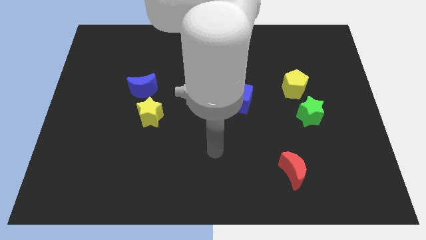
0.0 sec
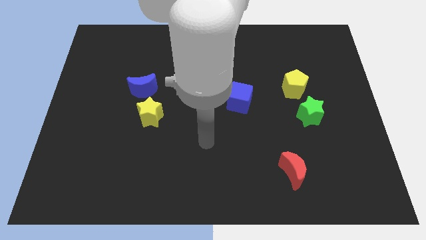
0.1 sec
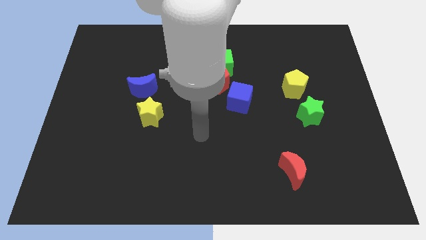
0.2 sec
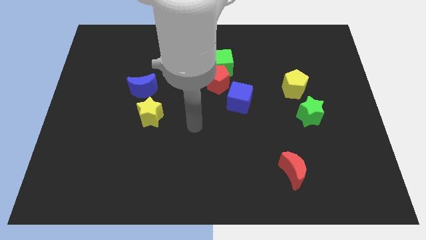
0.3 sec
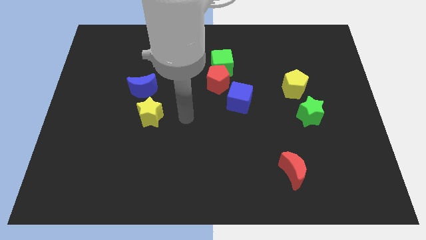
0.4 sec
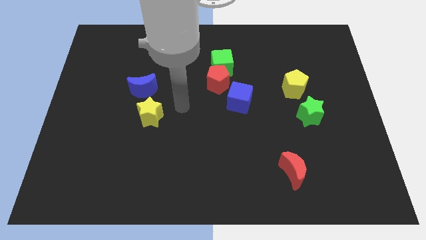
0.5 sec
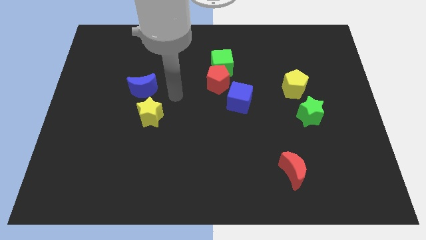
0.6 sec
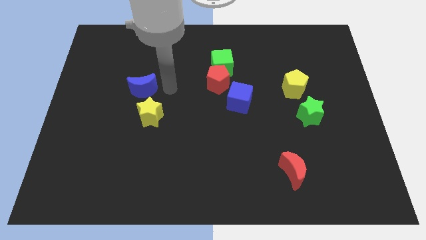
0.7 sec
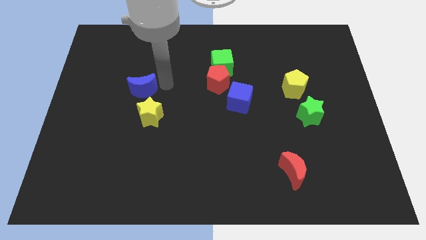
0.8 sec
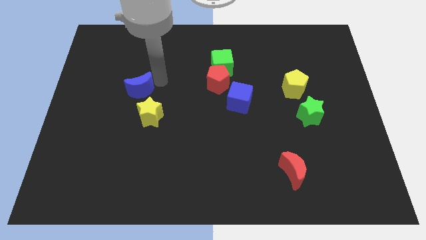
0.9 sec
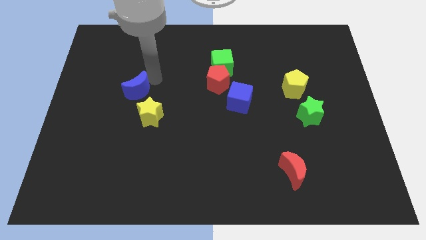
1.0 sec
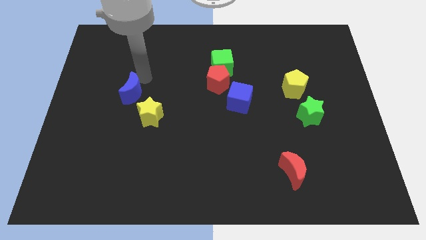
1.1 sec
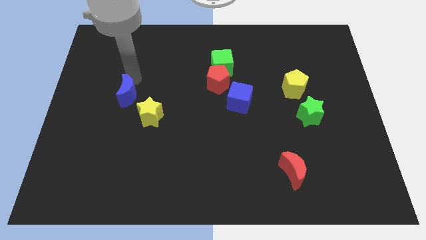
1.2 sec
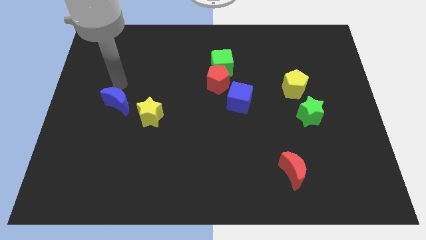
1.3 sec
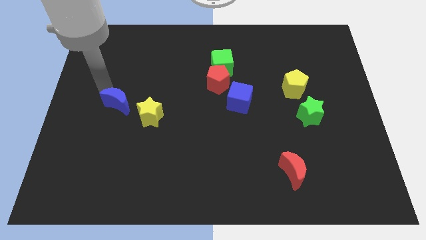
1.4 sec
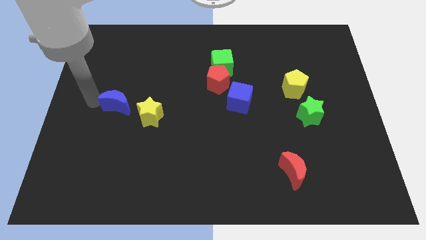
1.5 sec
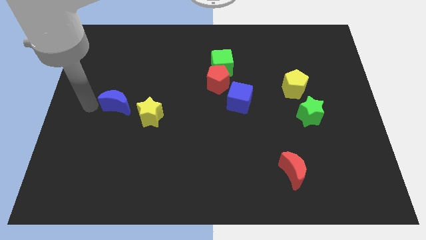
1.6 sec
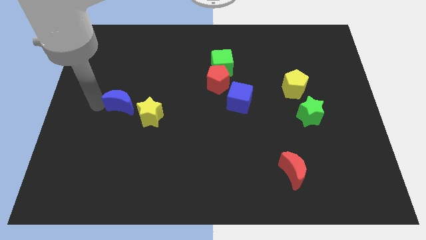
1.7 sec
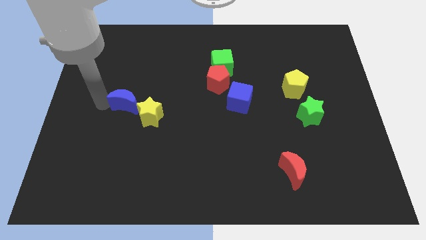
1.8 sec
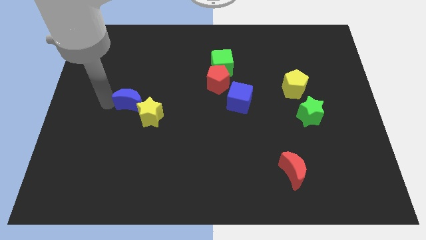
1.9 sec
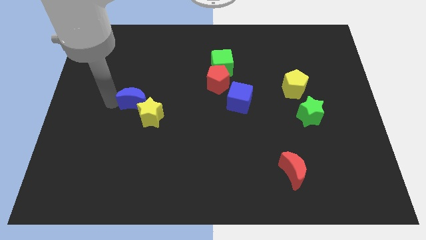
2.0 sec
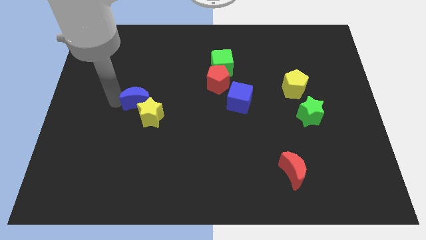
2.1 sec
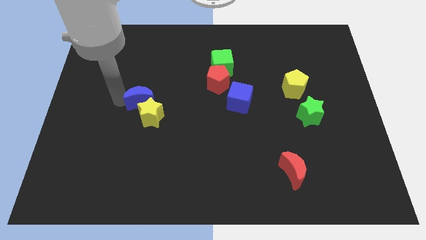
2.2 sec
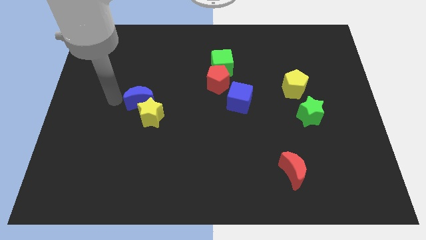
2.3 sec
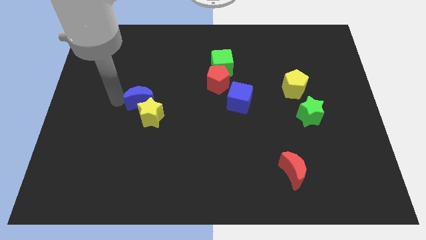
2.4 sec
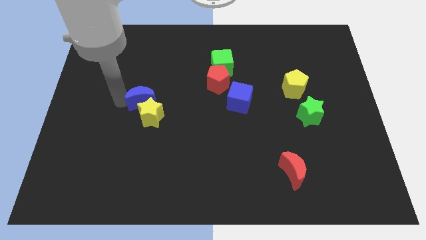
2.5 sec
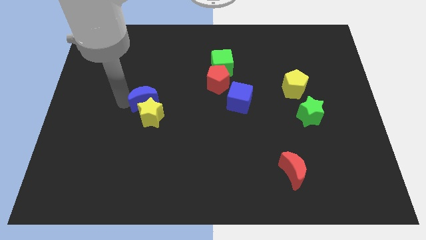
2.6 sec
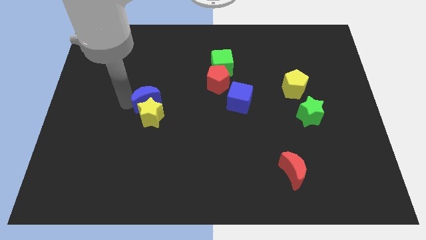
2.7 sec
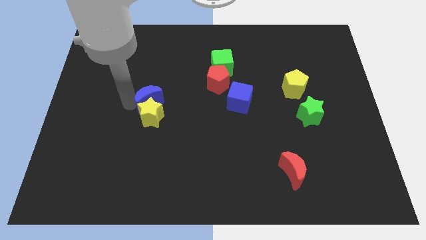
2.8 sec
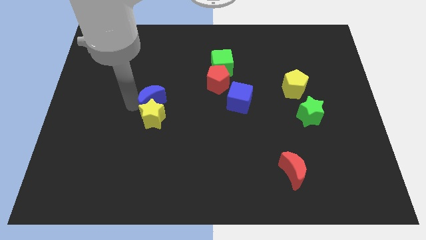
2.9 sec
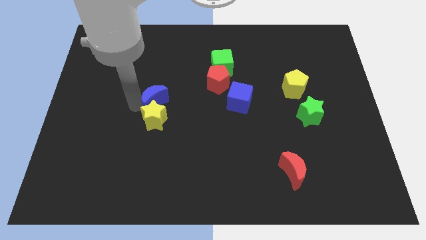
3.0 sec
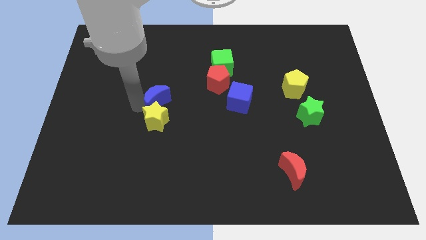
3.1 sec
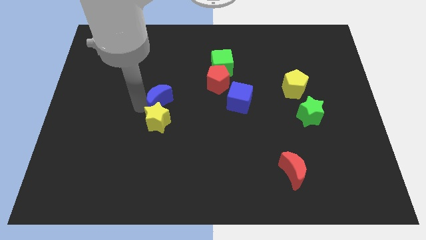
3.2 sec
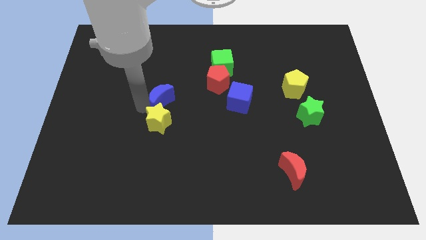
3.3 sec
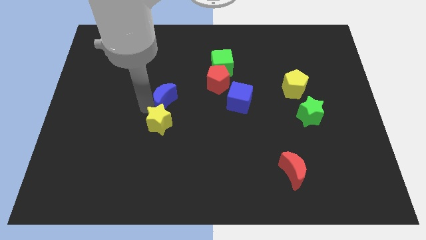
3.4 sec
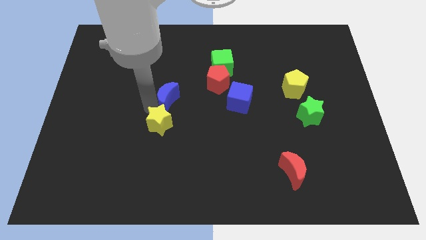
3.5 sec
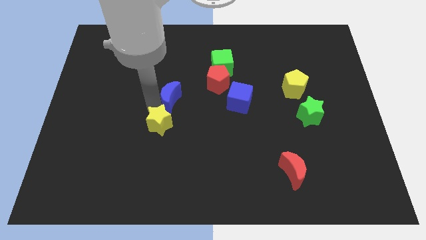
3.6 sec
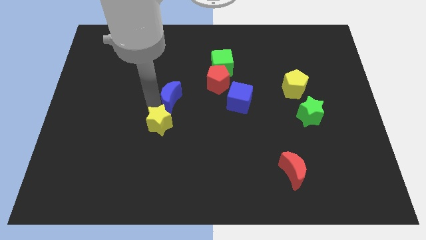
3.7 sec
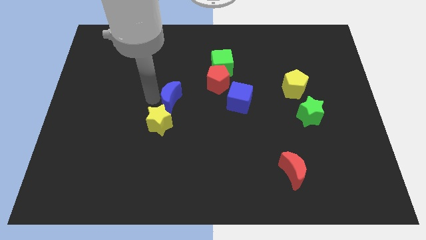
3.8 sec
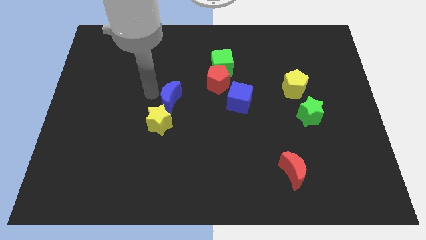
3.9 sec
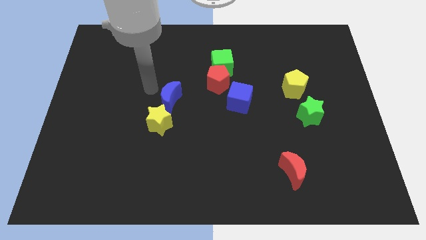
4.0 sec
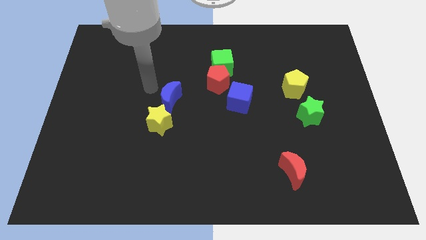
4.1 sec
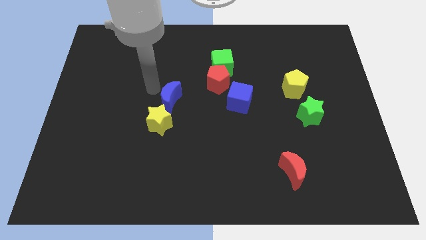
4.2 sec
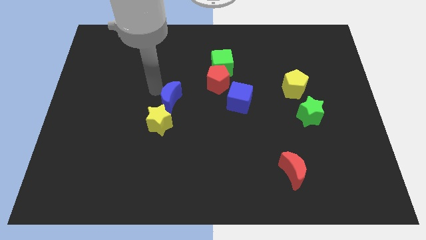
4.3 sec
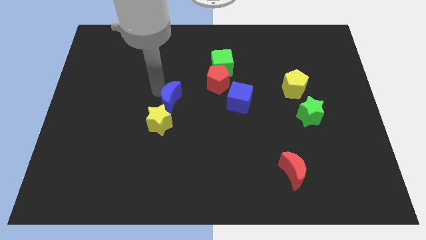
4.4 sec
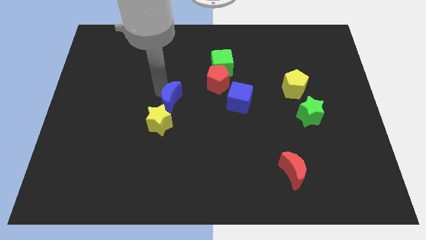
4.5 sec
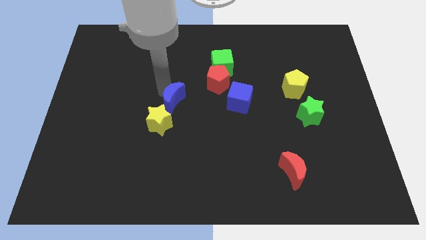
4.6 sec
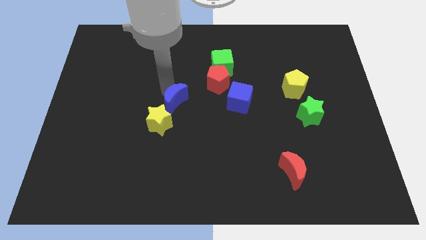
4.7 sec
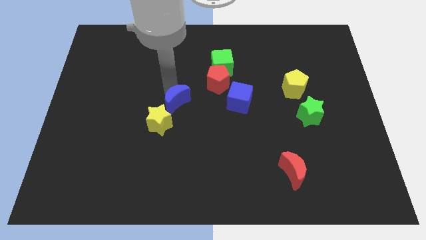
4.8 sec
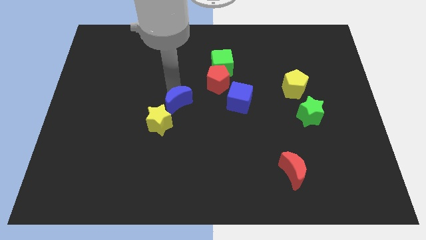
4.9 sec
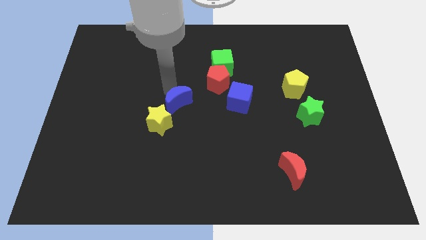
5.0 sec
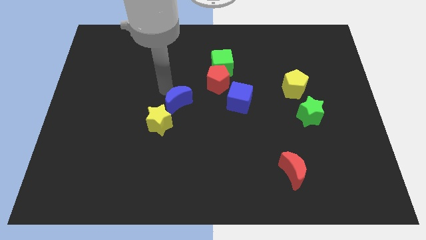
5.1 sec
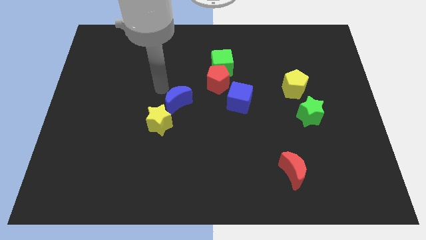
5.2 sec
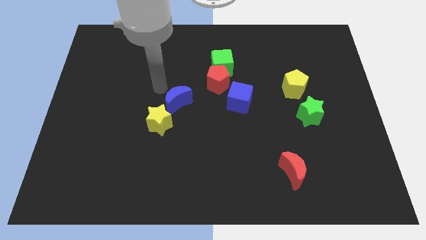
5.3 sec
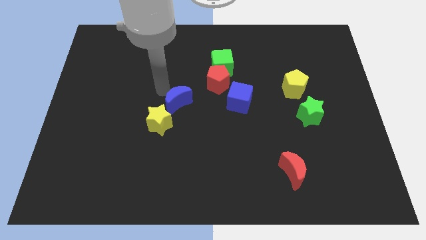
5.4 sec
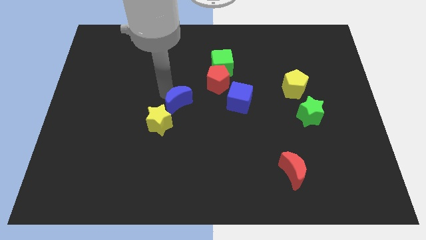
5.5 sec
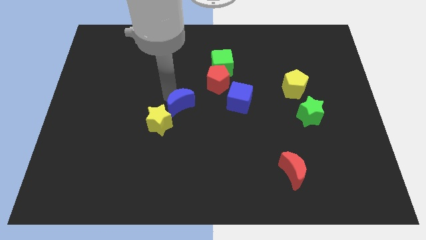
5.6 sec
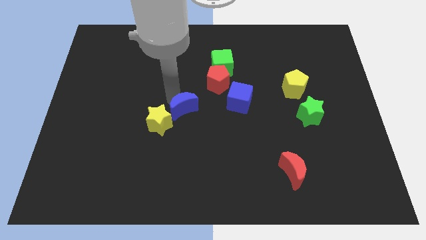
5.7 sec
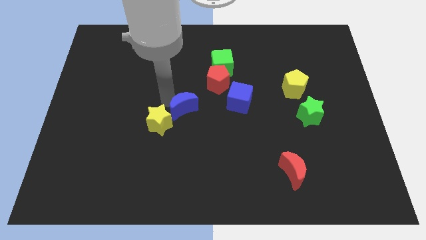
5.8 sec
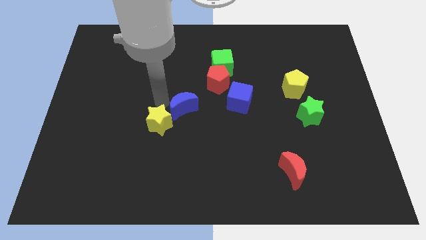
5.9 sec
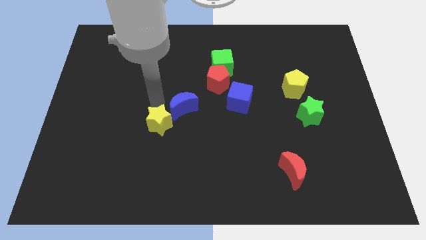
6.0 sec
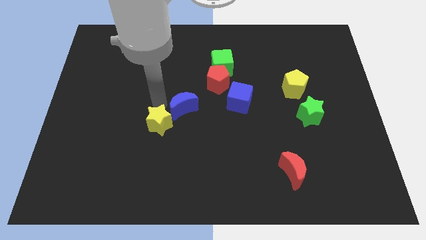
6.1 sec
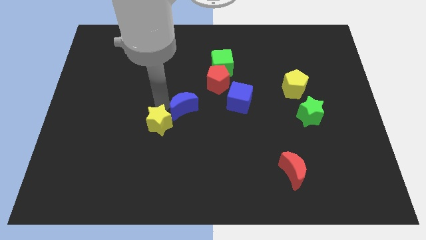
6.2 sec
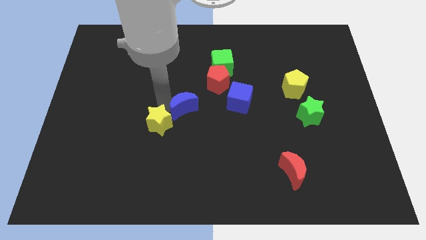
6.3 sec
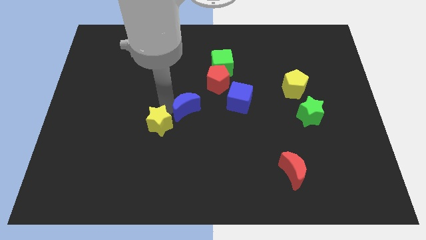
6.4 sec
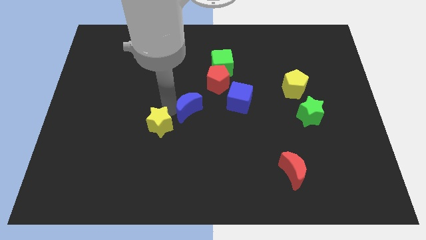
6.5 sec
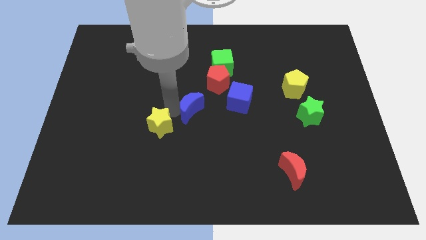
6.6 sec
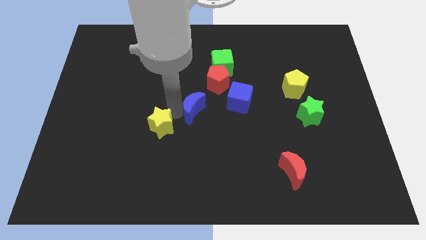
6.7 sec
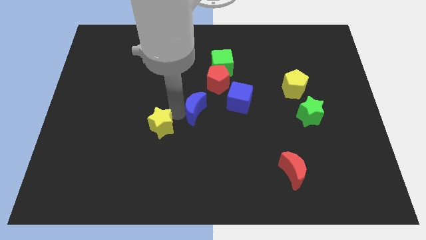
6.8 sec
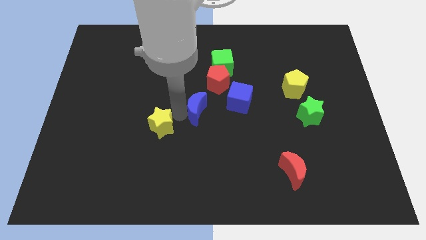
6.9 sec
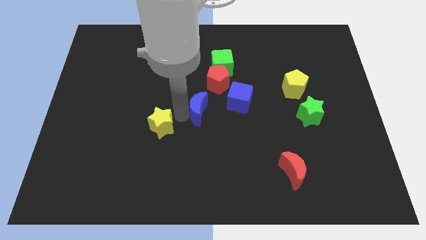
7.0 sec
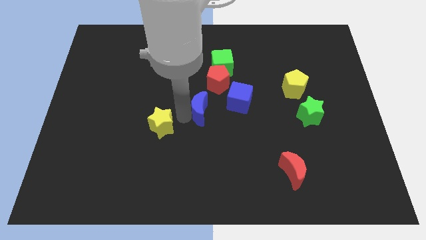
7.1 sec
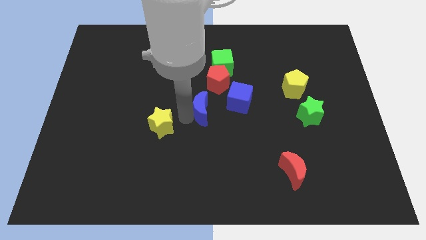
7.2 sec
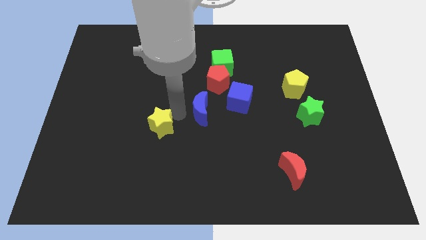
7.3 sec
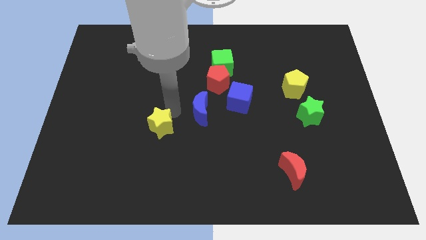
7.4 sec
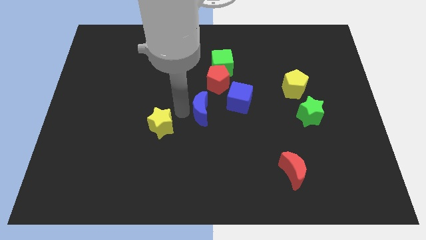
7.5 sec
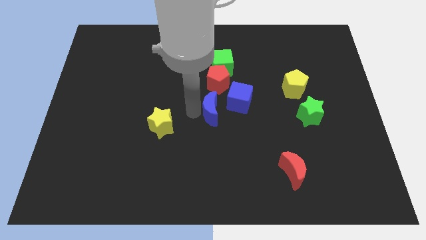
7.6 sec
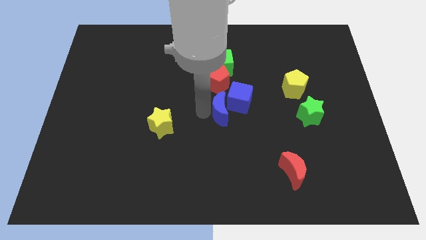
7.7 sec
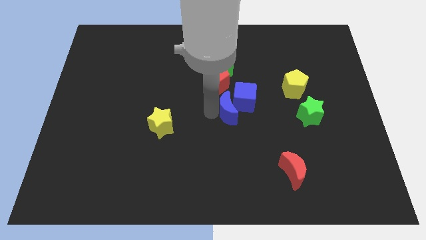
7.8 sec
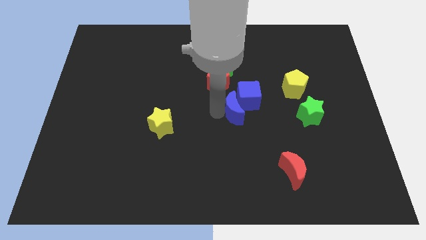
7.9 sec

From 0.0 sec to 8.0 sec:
move the blue moon right
